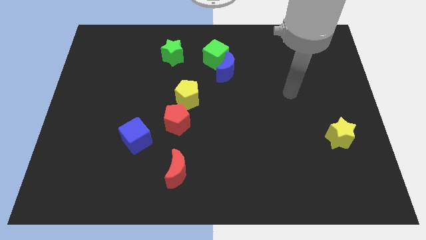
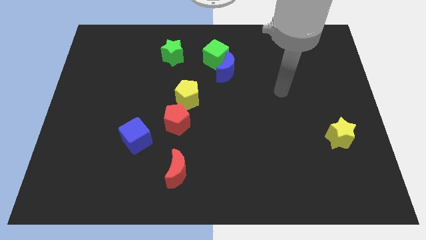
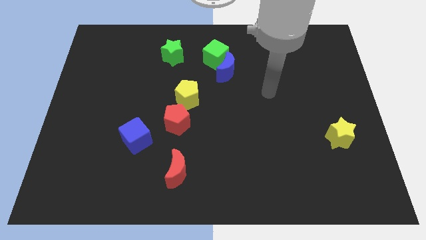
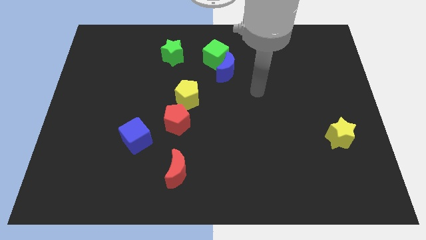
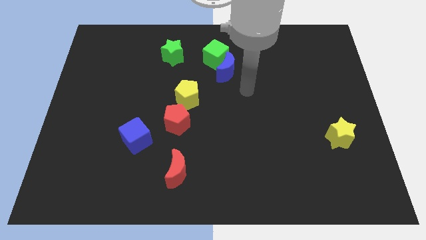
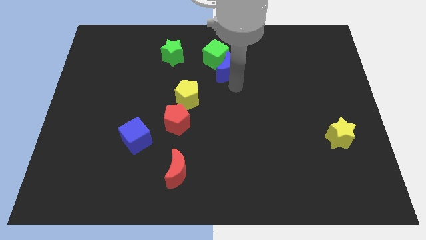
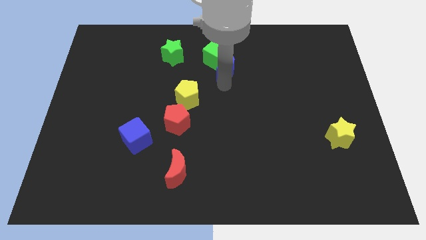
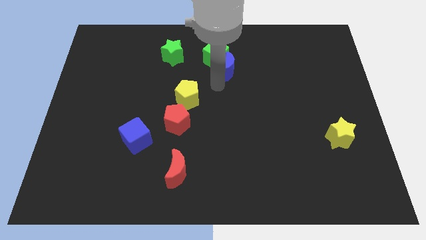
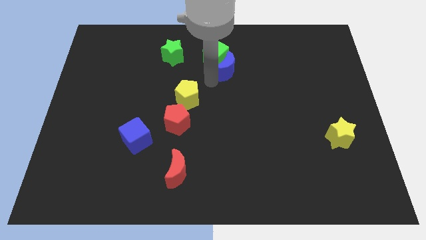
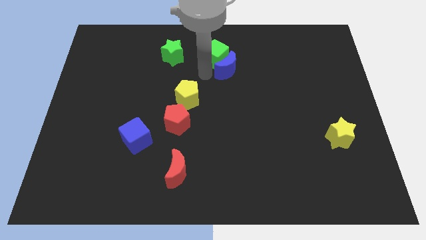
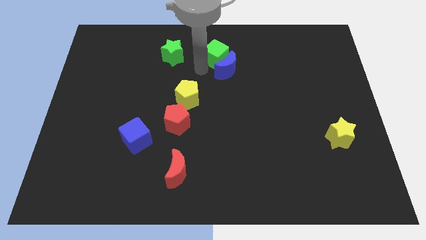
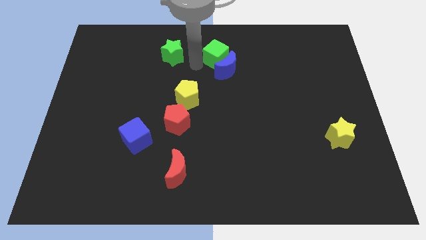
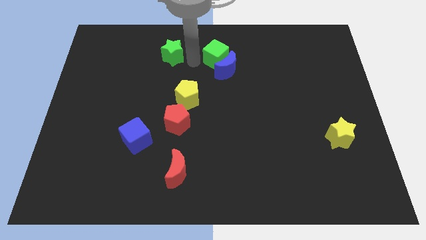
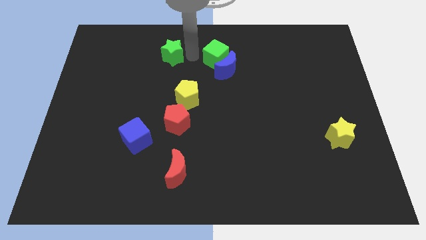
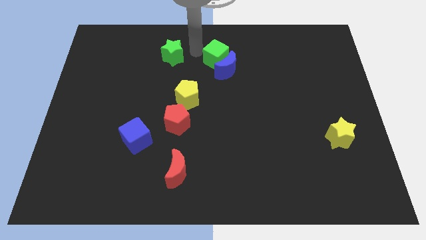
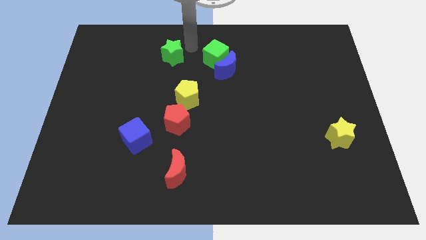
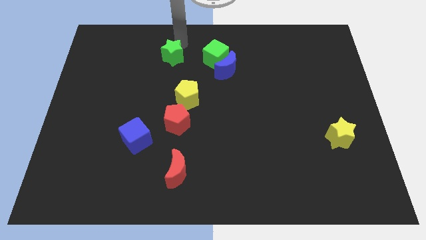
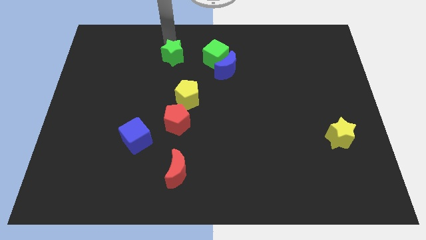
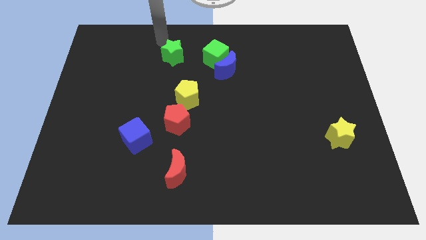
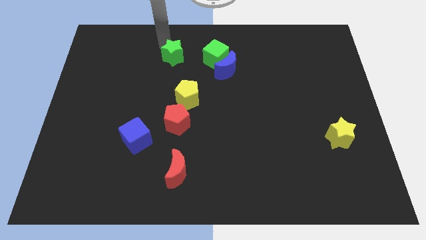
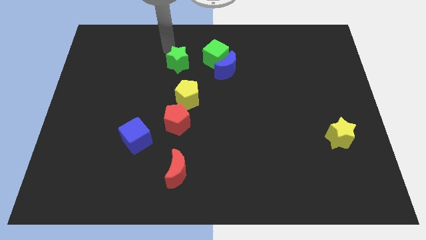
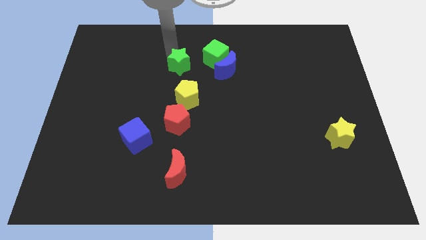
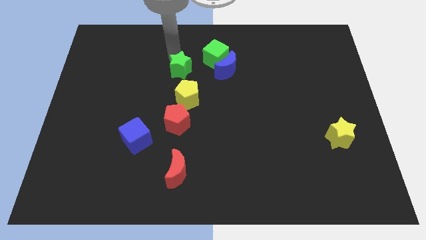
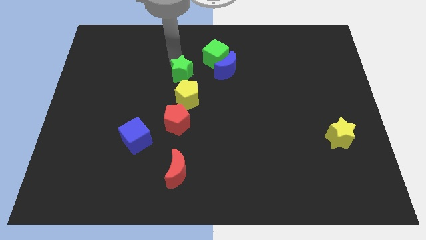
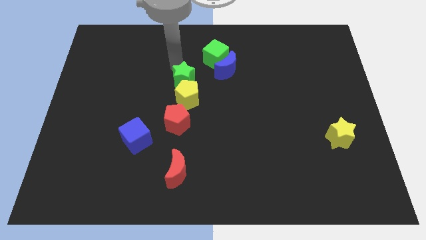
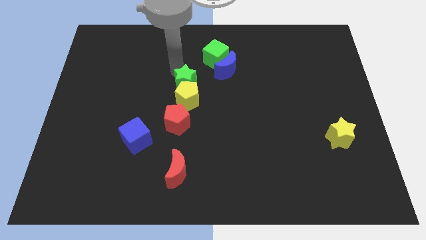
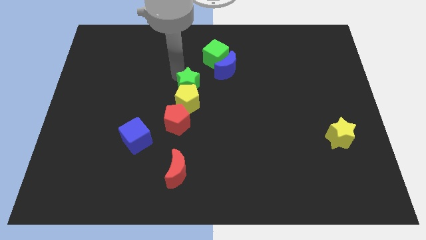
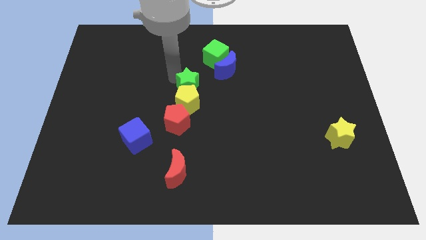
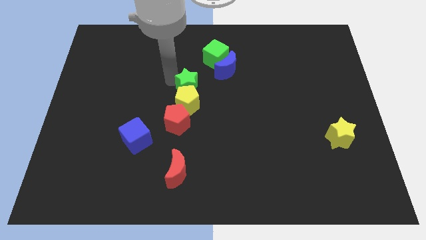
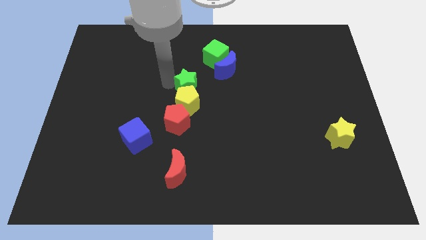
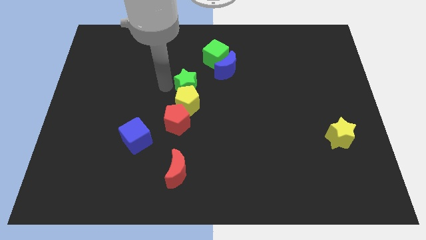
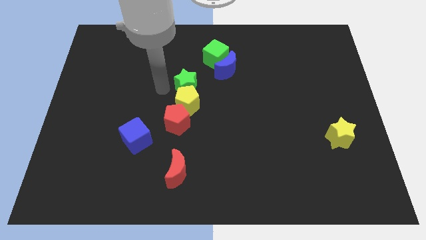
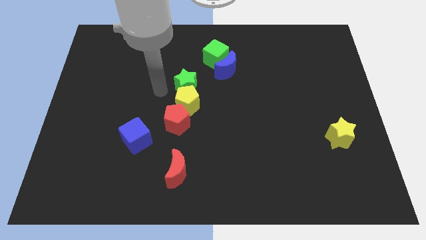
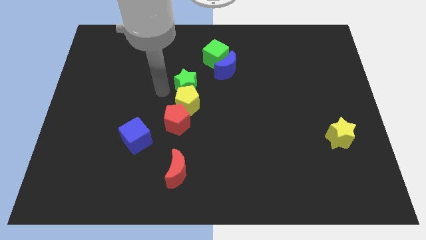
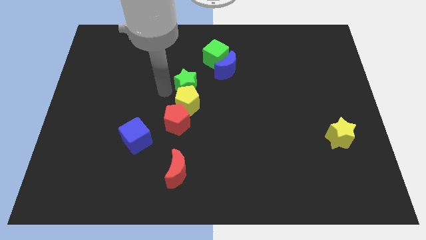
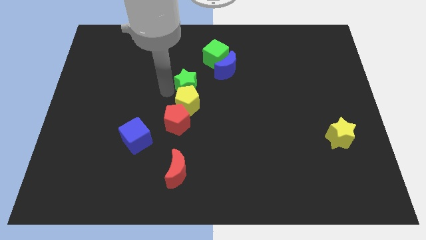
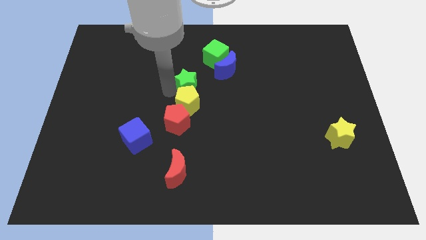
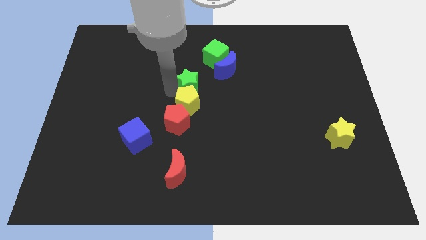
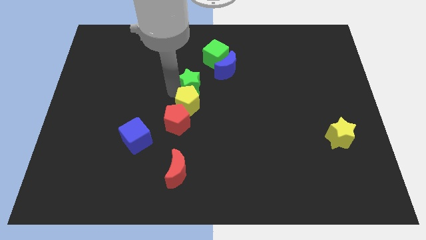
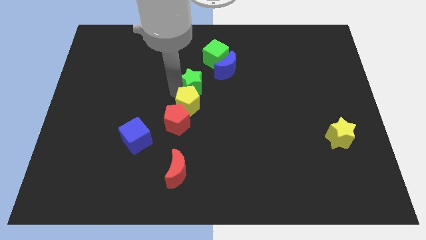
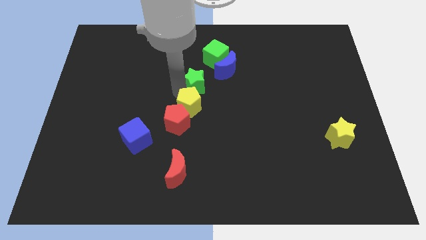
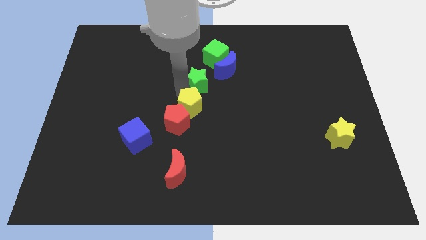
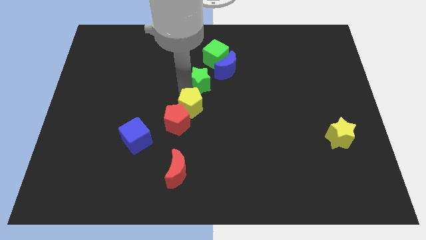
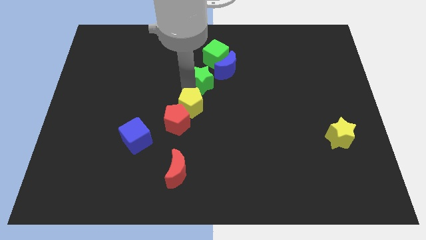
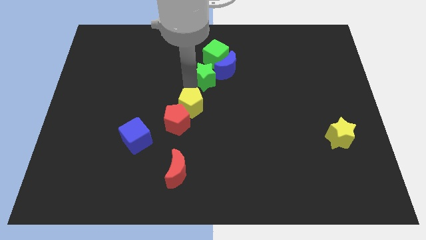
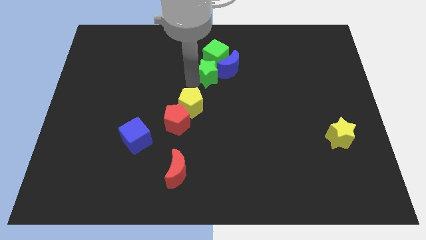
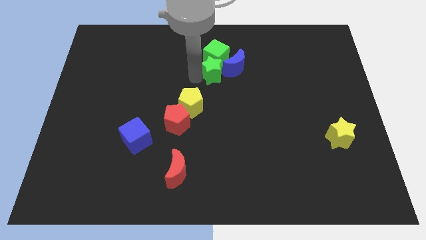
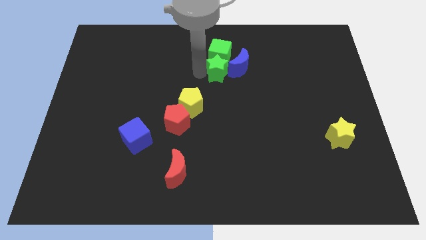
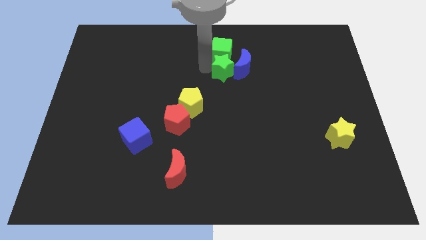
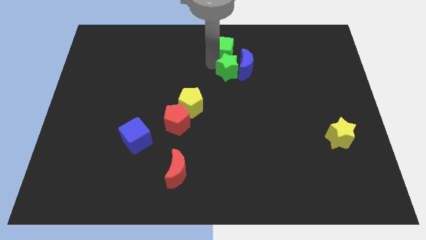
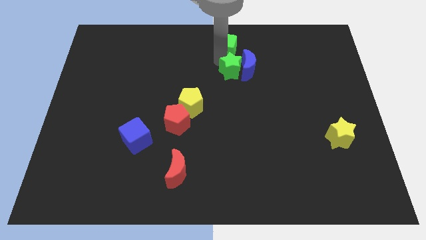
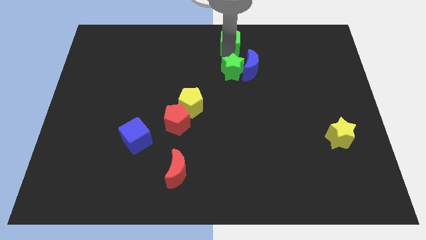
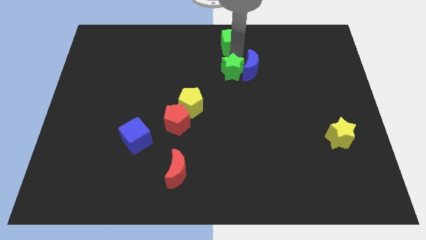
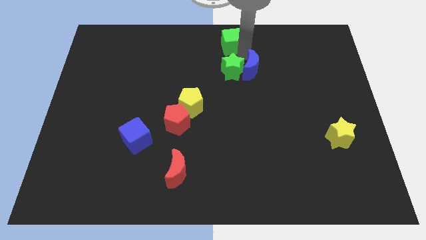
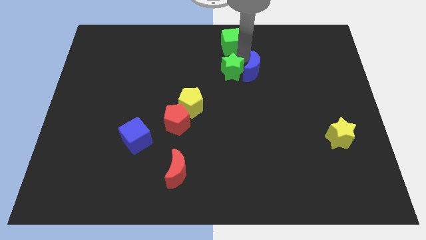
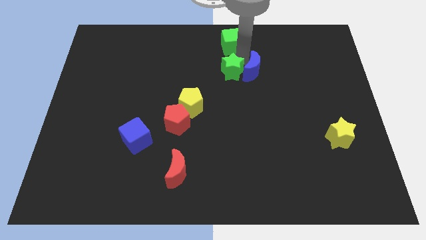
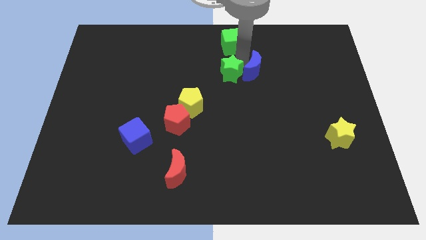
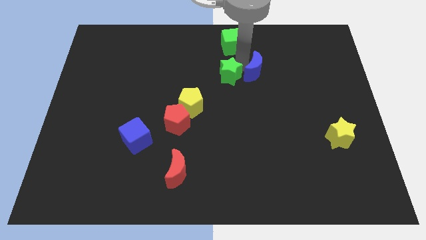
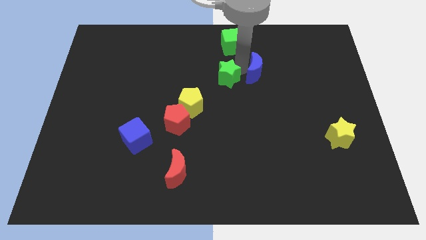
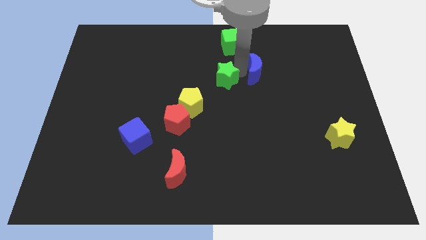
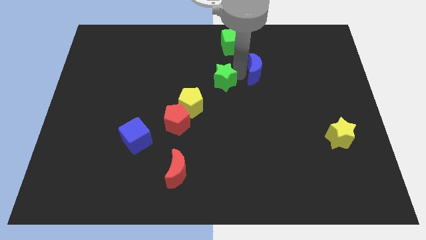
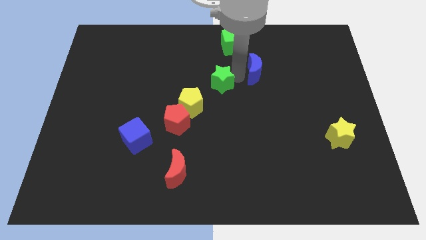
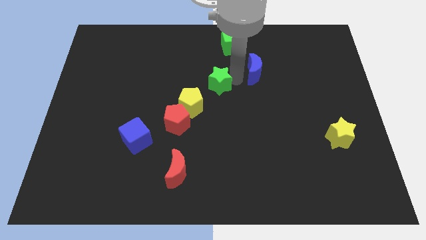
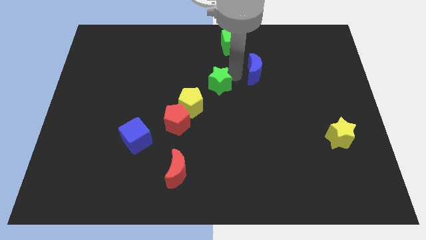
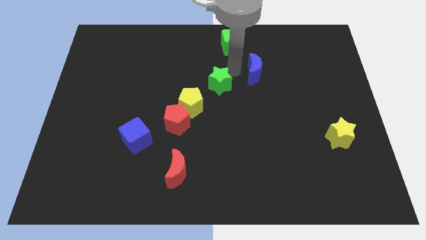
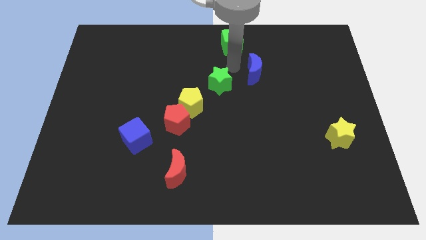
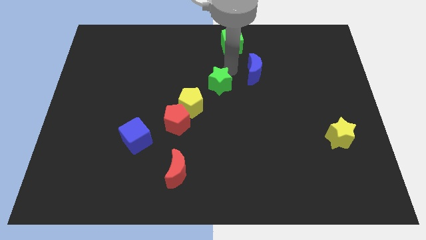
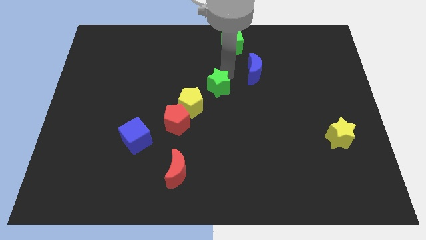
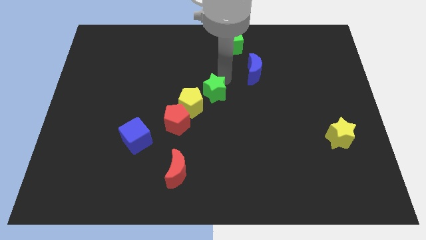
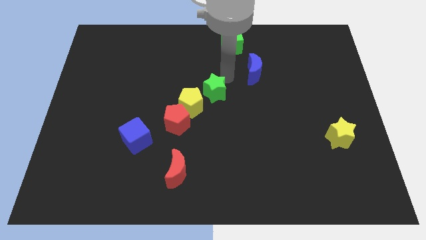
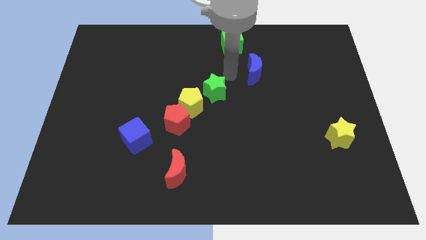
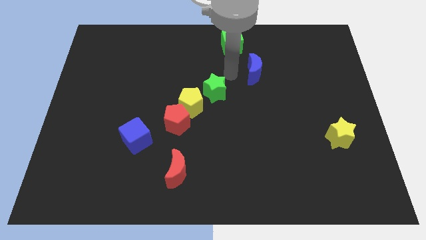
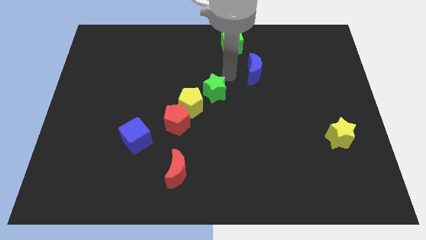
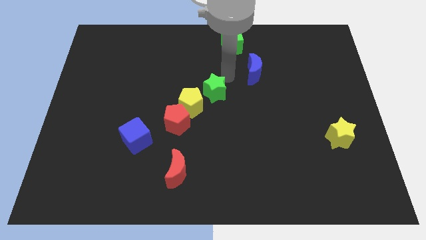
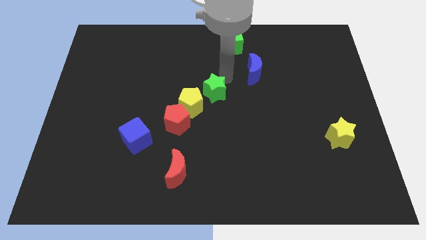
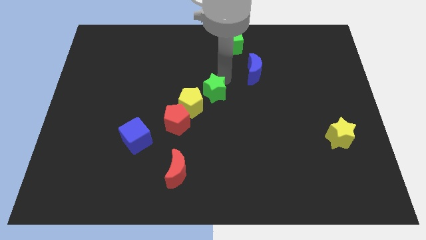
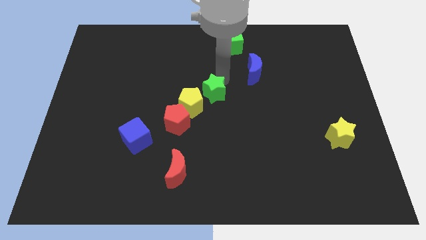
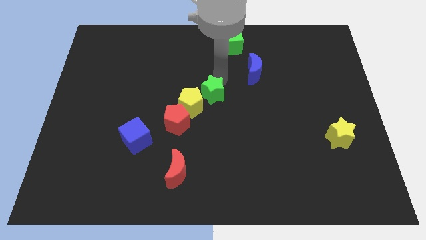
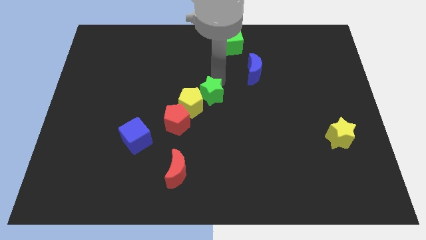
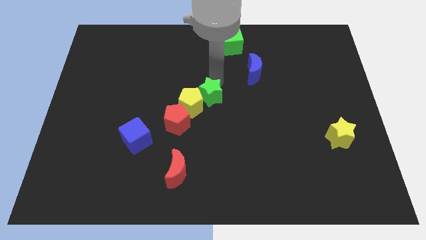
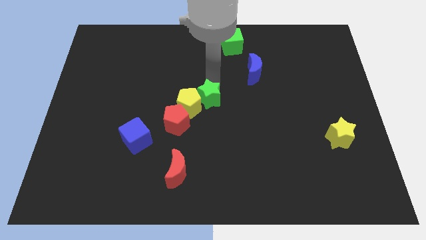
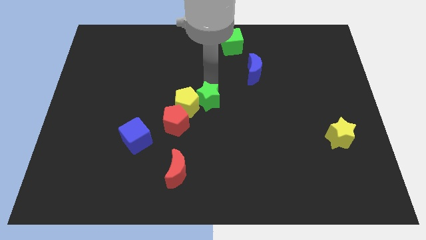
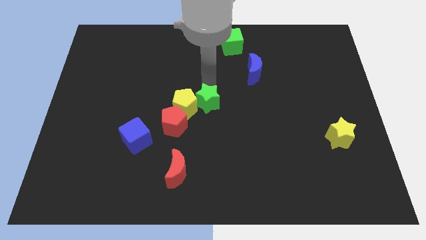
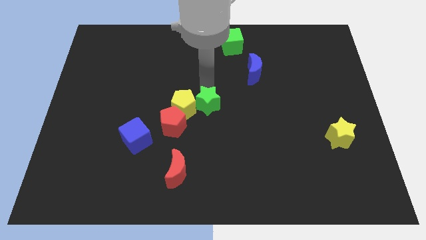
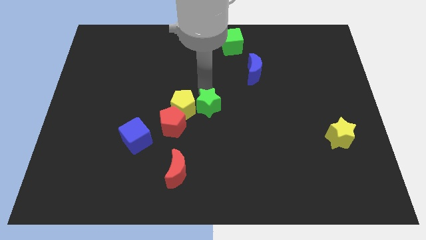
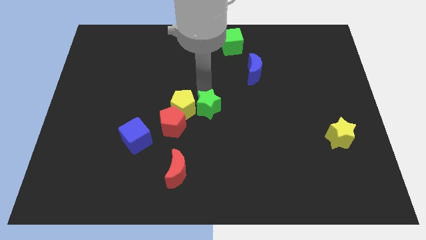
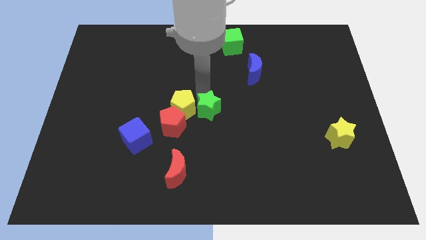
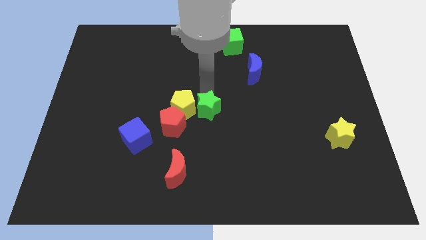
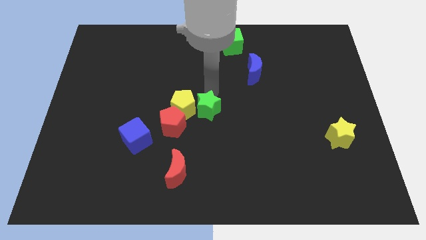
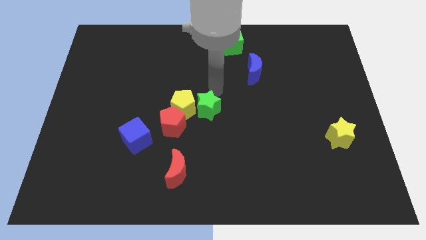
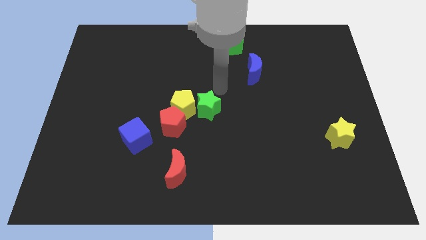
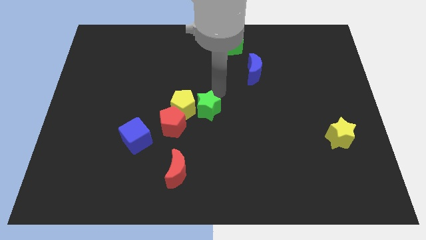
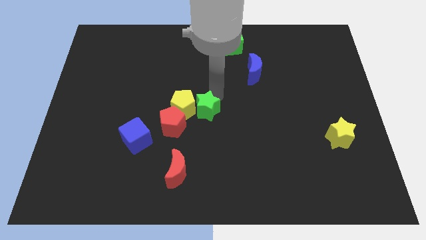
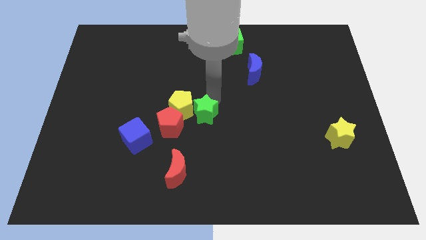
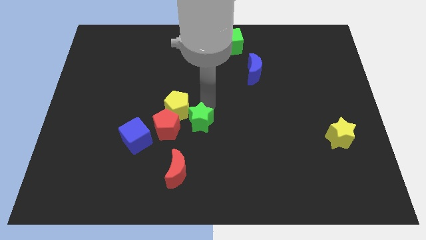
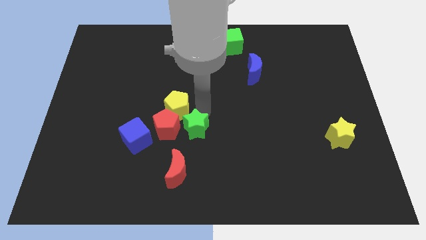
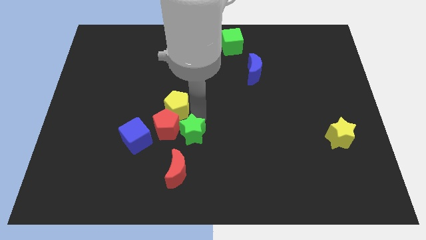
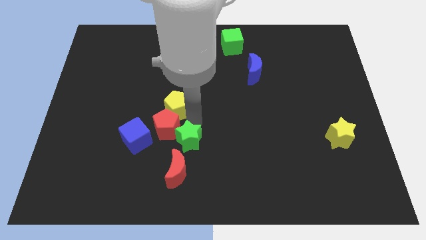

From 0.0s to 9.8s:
move the green star to the top right of the red moon
